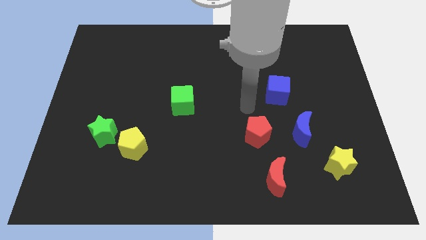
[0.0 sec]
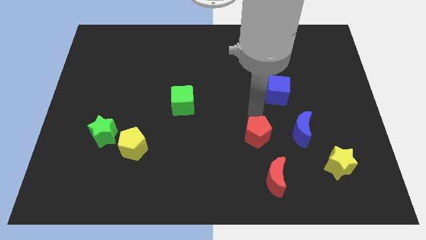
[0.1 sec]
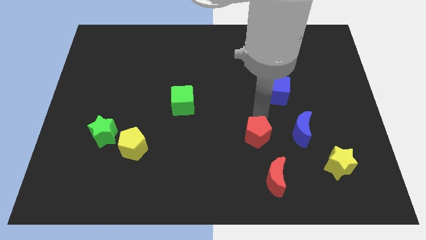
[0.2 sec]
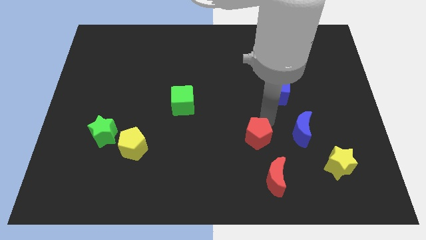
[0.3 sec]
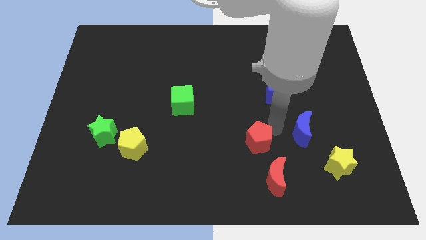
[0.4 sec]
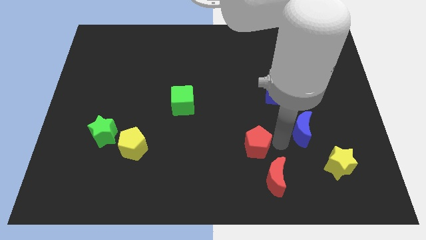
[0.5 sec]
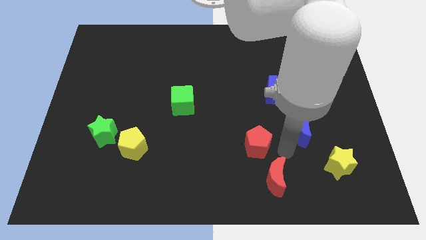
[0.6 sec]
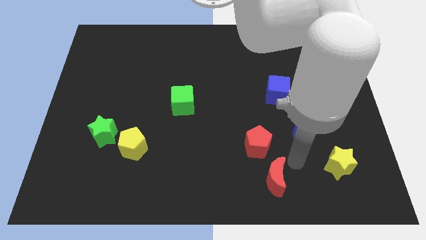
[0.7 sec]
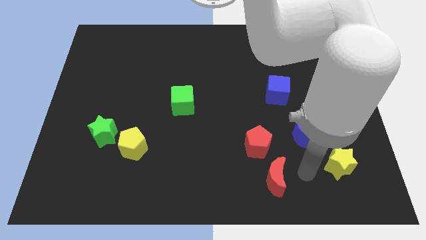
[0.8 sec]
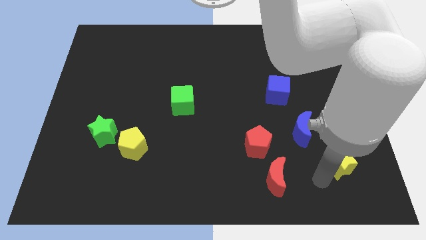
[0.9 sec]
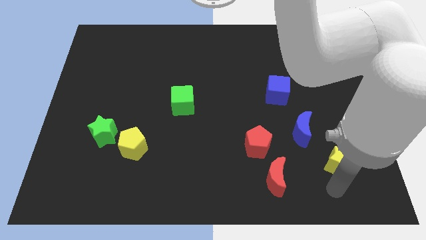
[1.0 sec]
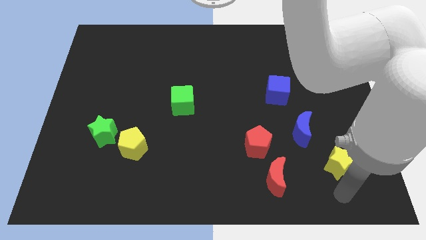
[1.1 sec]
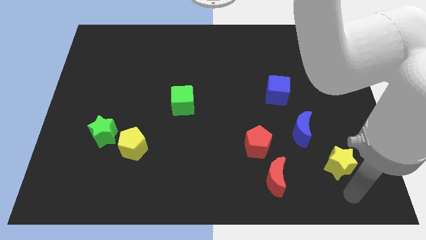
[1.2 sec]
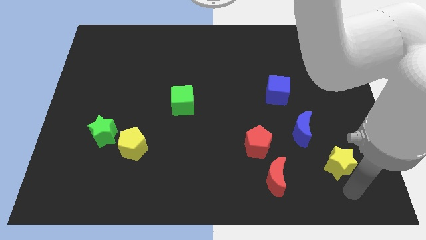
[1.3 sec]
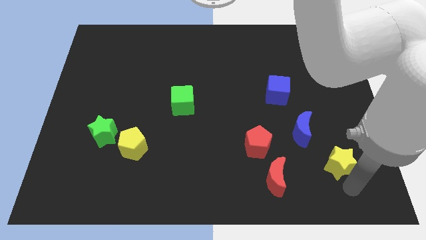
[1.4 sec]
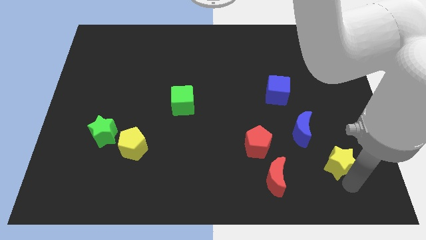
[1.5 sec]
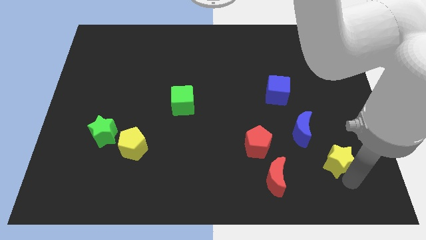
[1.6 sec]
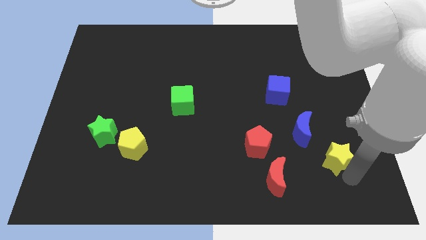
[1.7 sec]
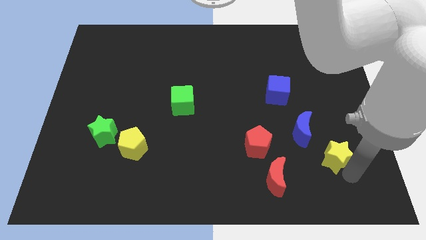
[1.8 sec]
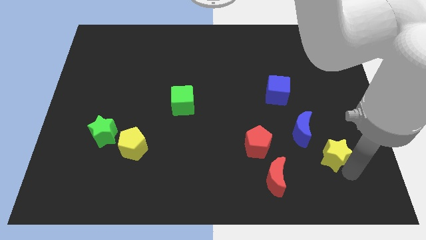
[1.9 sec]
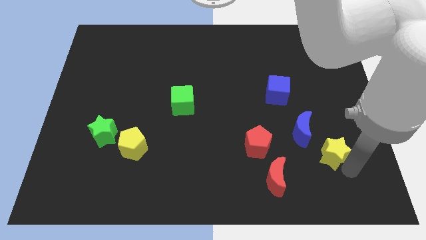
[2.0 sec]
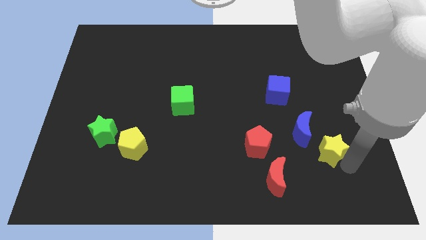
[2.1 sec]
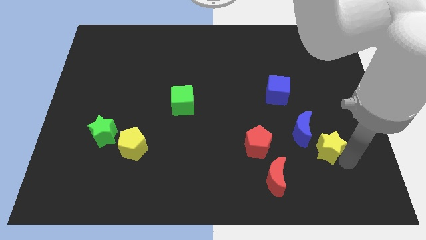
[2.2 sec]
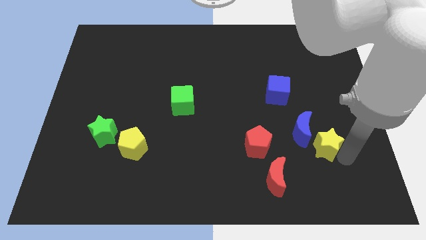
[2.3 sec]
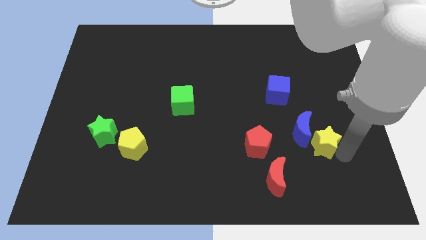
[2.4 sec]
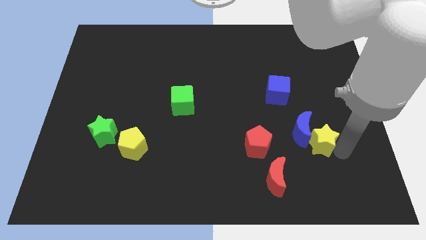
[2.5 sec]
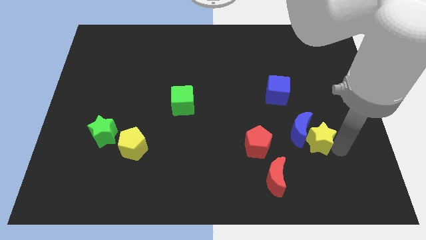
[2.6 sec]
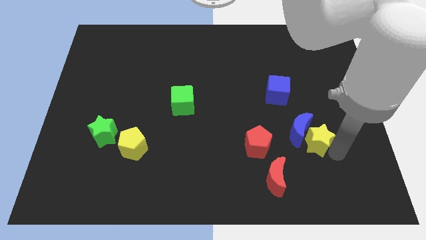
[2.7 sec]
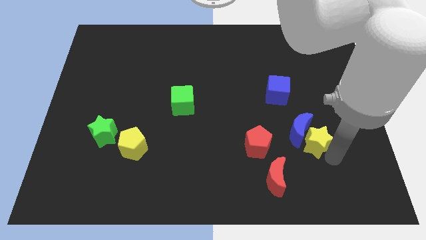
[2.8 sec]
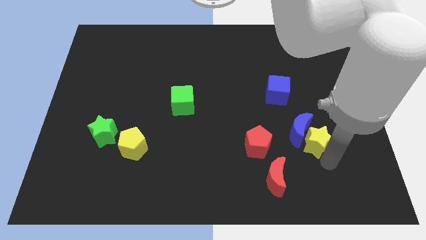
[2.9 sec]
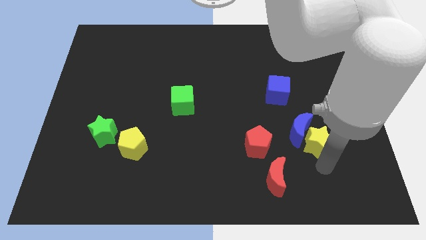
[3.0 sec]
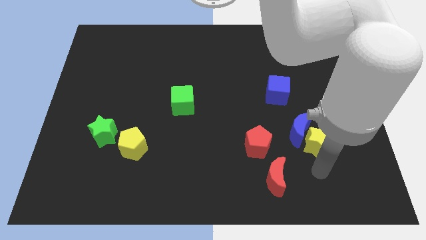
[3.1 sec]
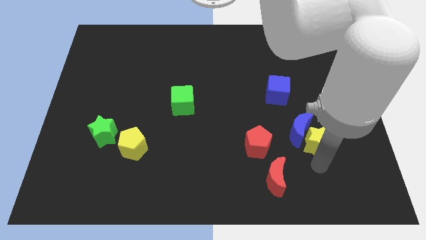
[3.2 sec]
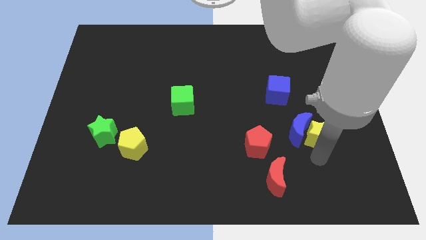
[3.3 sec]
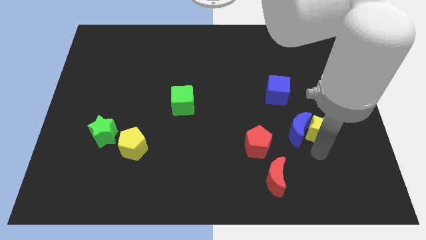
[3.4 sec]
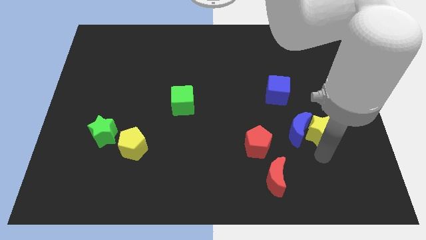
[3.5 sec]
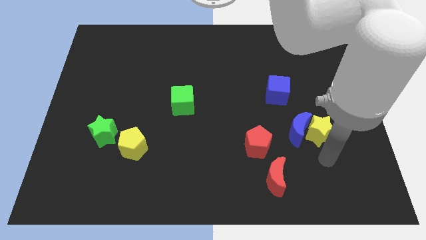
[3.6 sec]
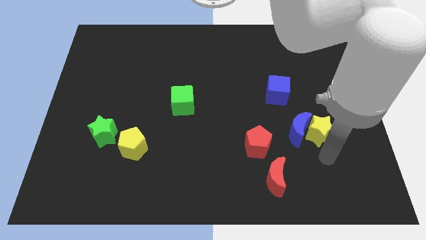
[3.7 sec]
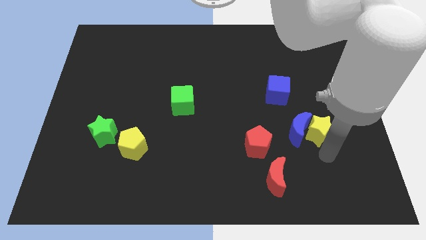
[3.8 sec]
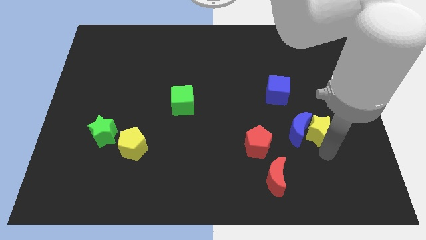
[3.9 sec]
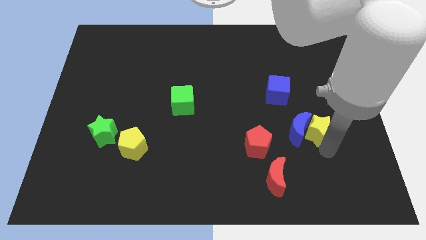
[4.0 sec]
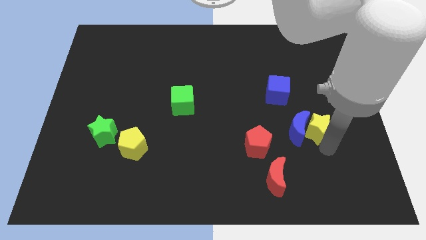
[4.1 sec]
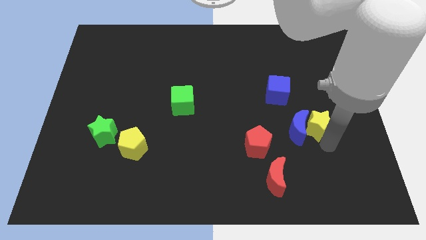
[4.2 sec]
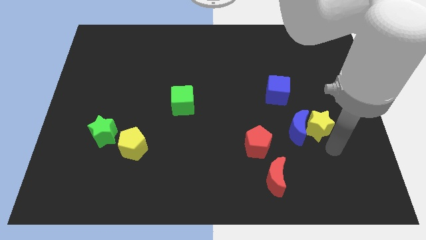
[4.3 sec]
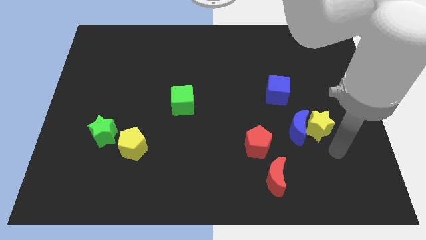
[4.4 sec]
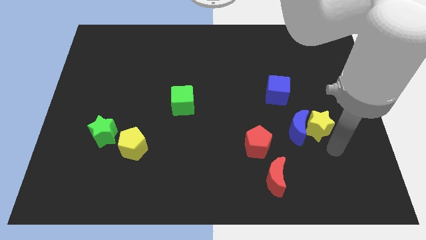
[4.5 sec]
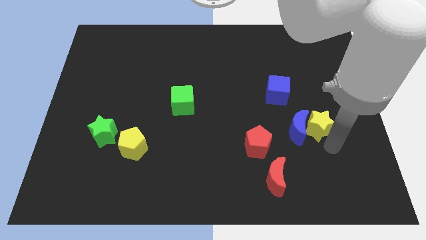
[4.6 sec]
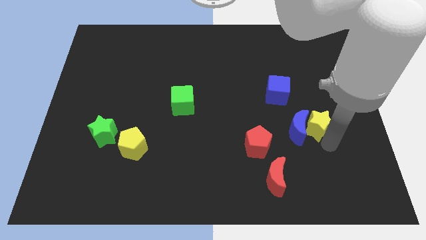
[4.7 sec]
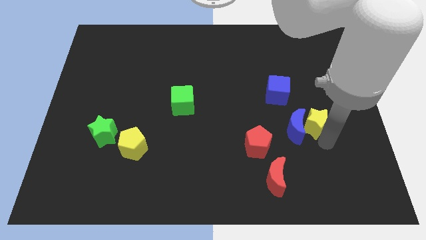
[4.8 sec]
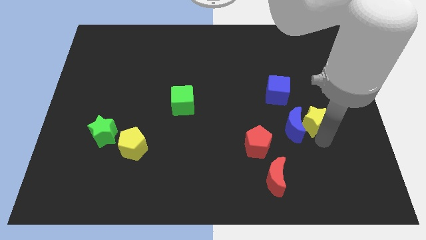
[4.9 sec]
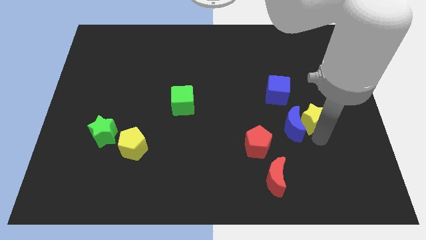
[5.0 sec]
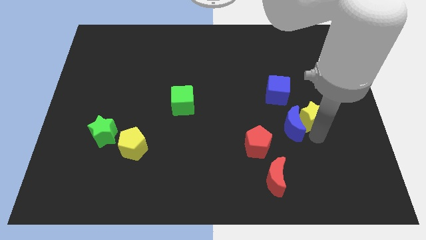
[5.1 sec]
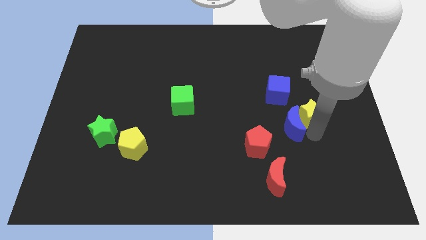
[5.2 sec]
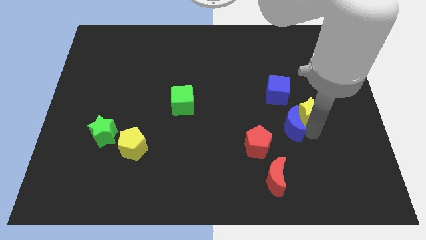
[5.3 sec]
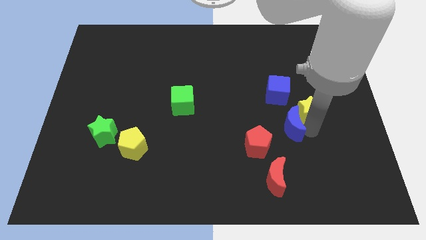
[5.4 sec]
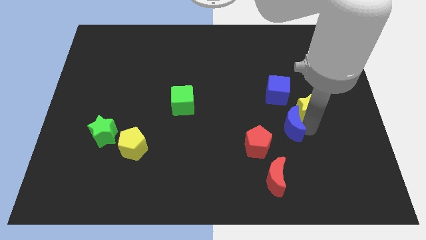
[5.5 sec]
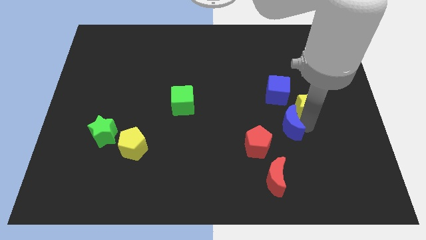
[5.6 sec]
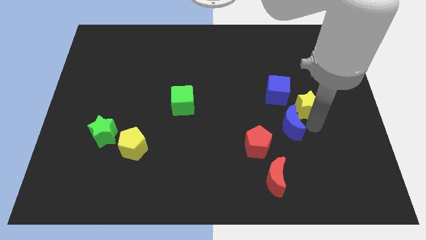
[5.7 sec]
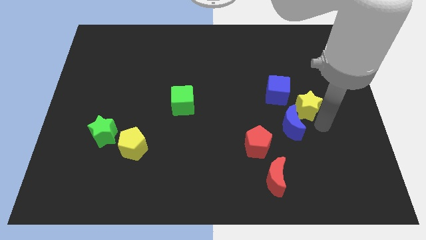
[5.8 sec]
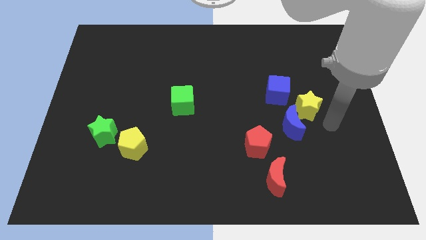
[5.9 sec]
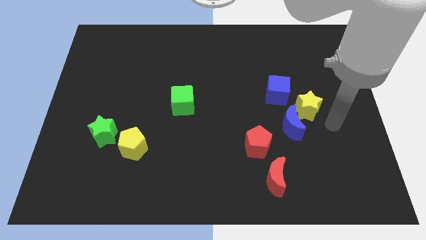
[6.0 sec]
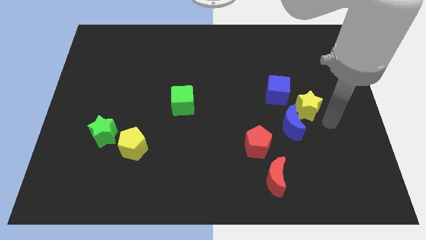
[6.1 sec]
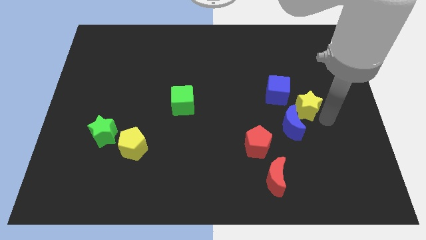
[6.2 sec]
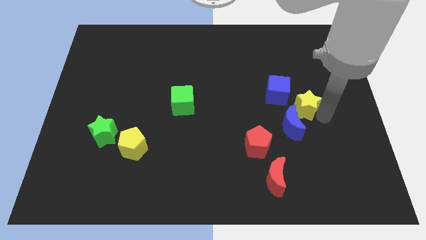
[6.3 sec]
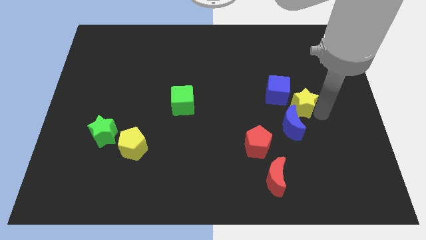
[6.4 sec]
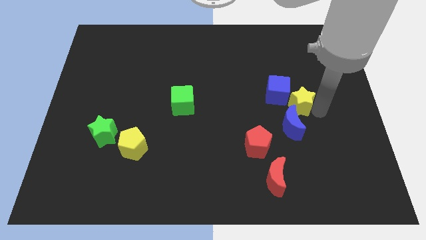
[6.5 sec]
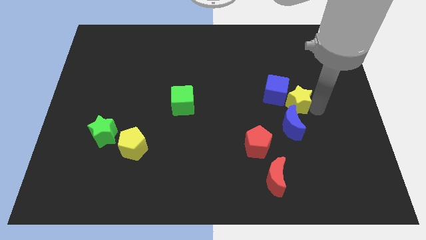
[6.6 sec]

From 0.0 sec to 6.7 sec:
put the yellow star next to the blue cube
